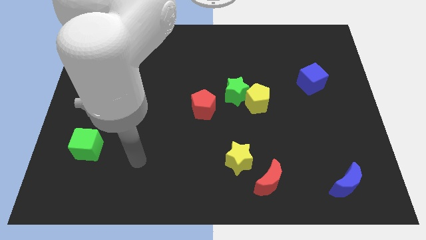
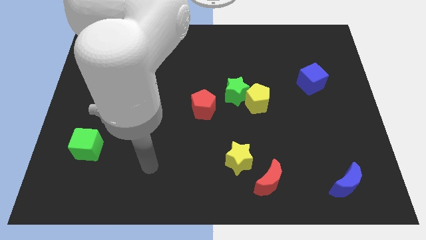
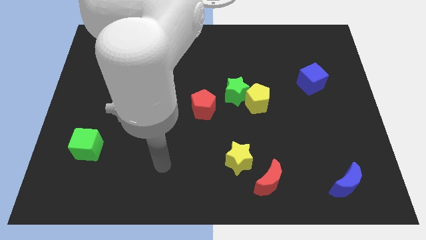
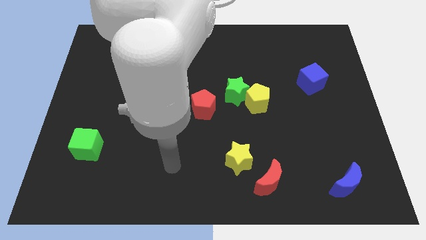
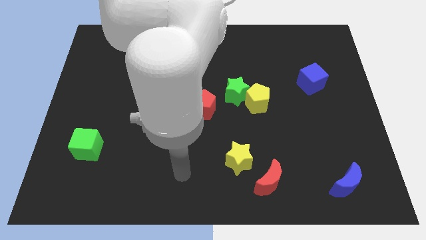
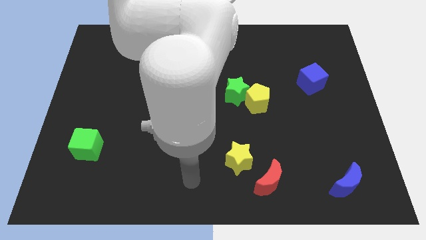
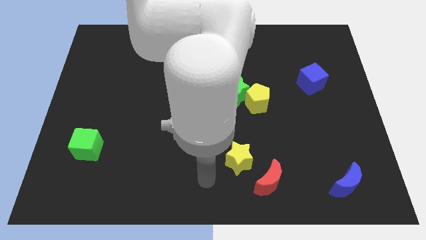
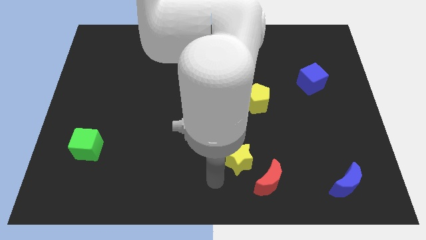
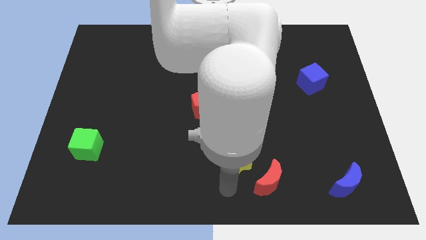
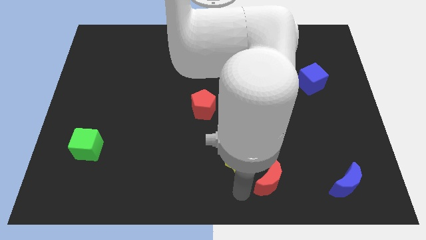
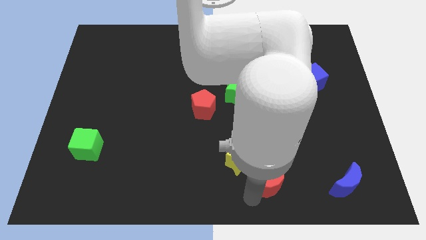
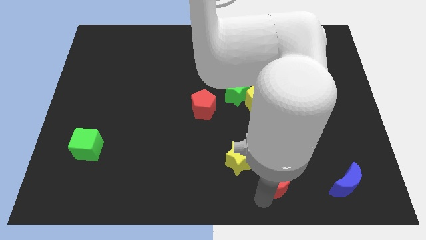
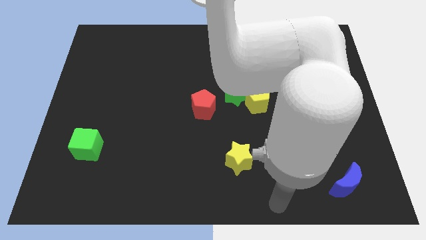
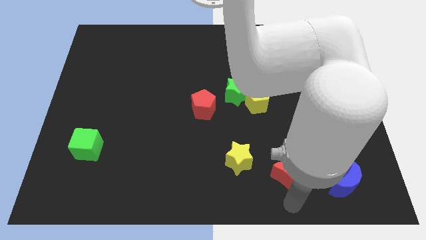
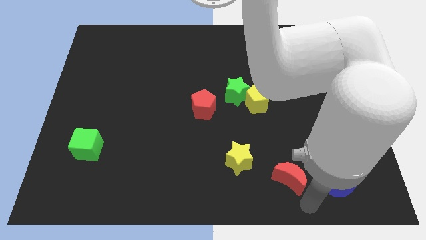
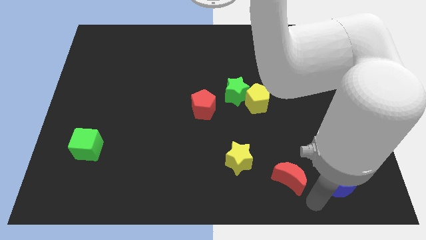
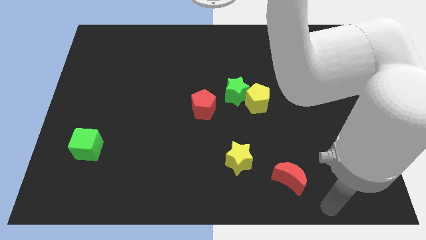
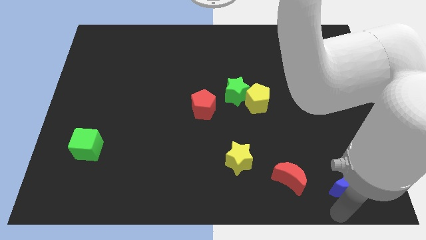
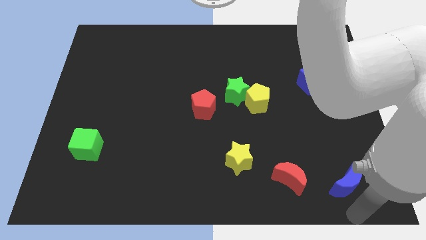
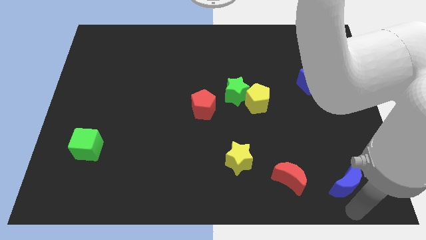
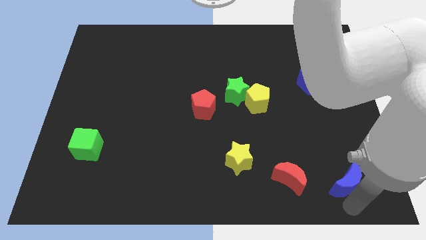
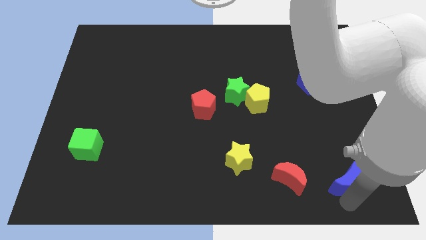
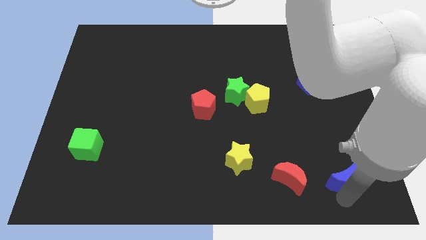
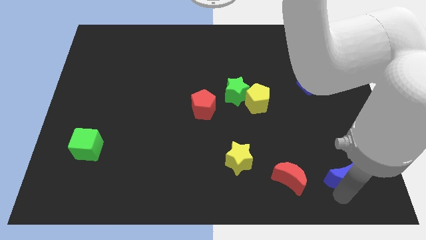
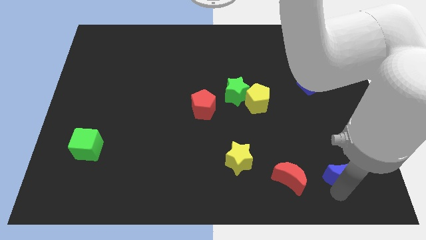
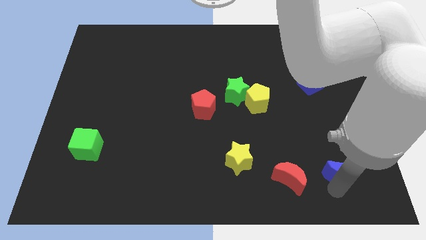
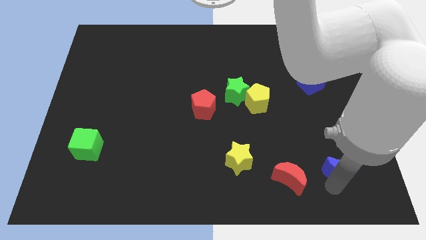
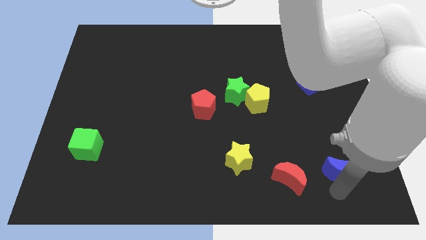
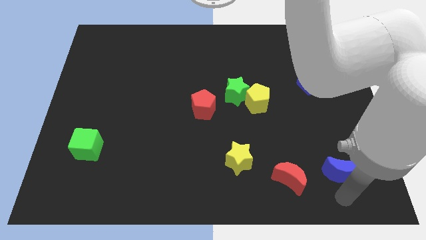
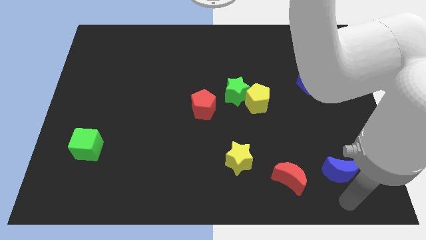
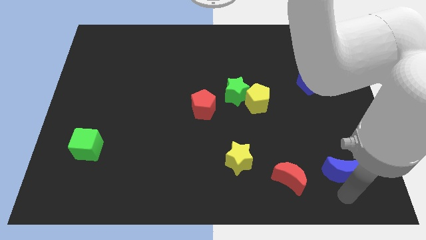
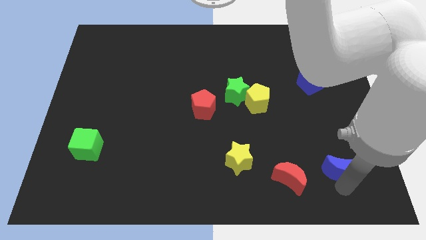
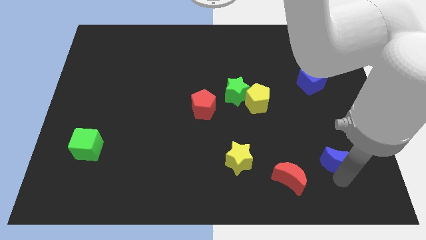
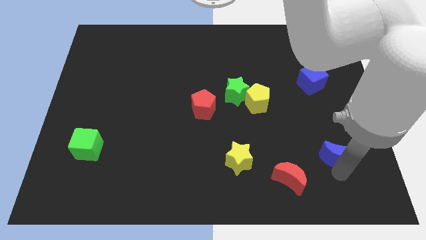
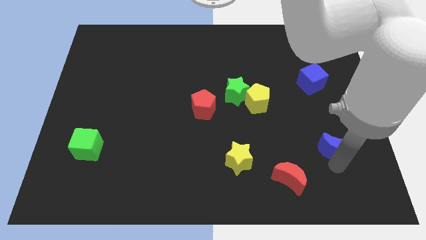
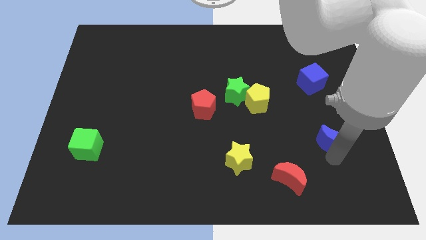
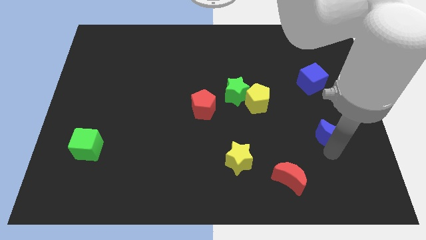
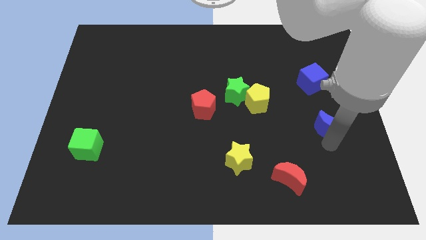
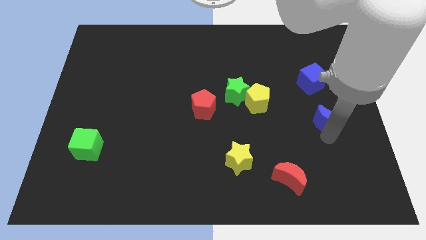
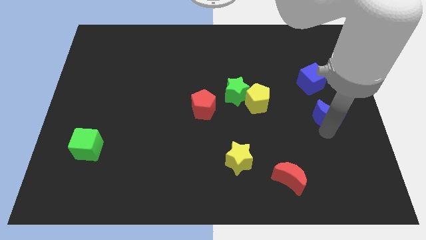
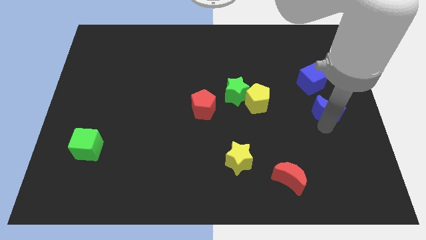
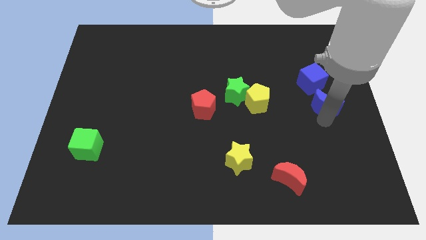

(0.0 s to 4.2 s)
push the blue moon upwards

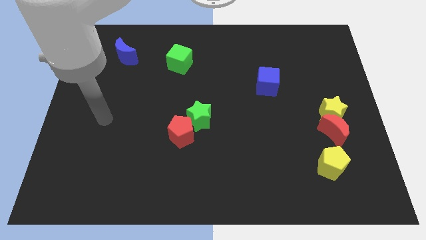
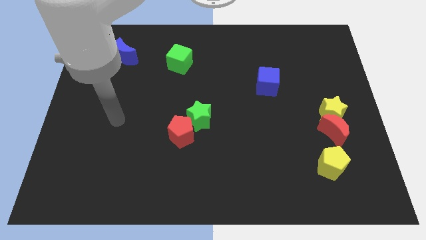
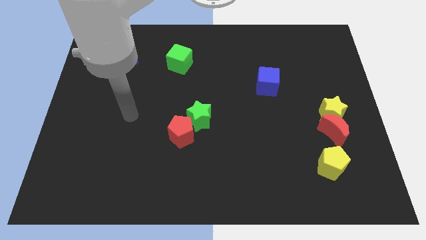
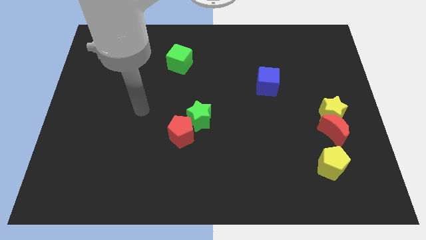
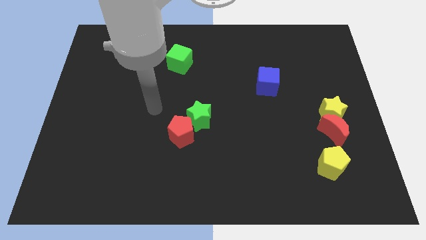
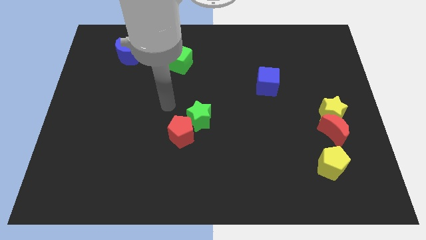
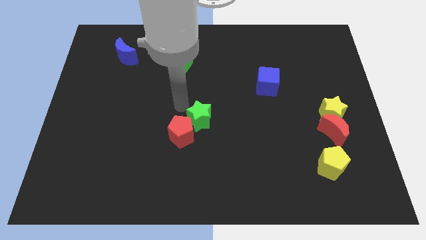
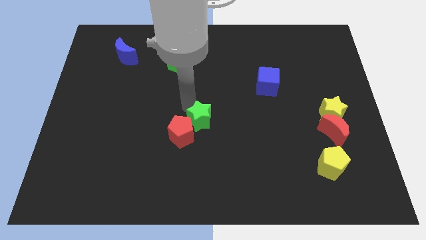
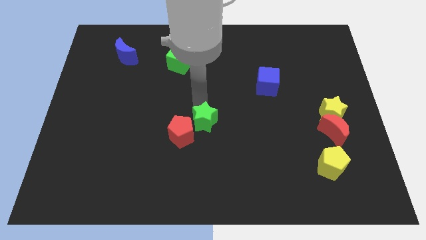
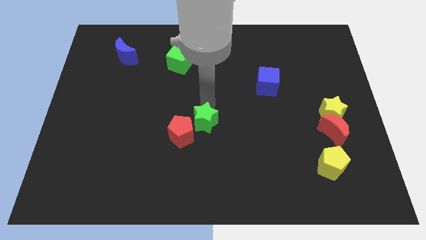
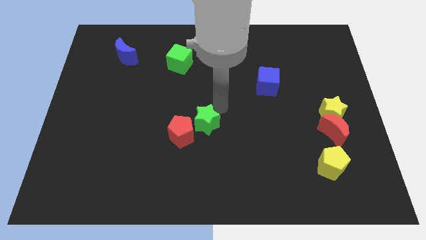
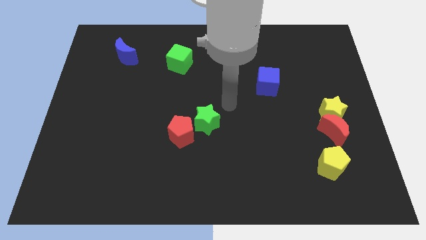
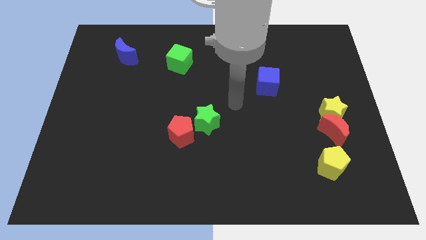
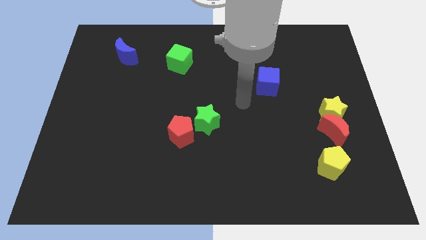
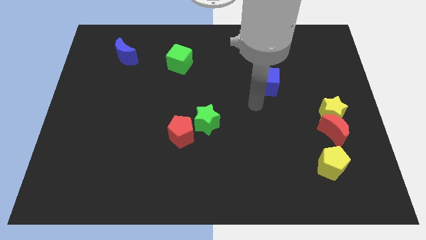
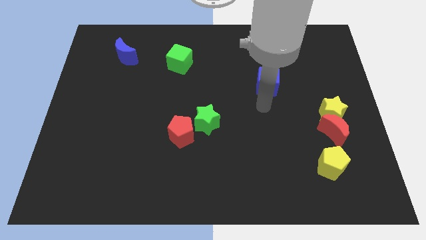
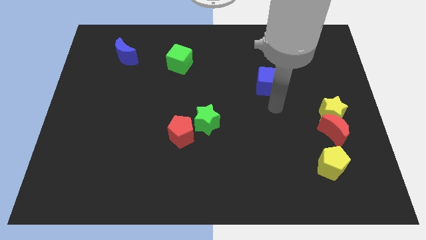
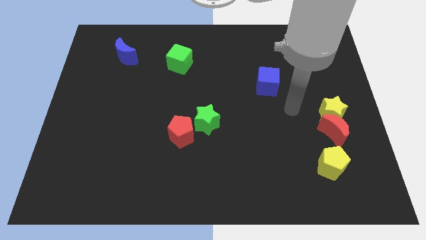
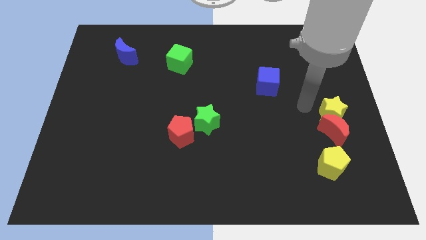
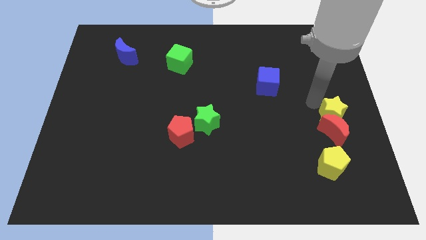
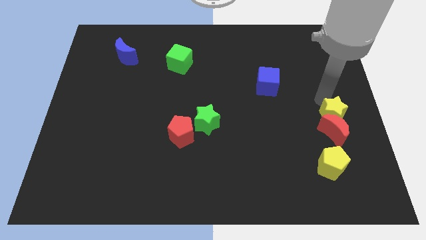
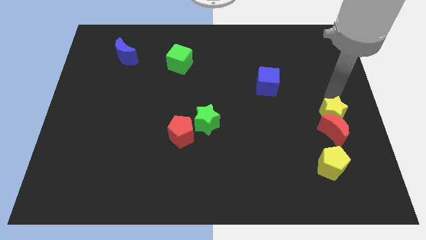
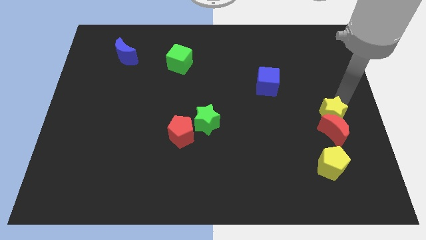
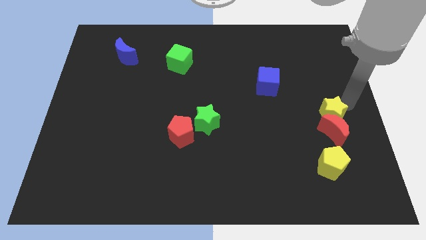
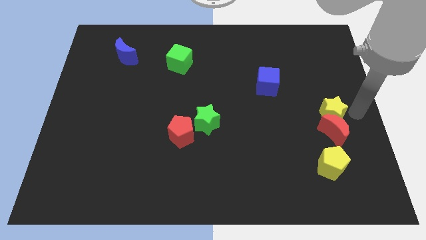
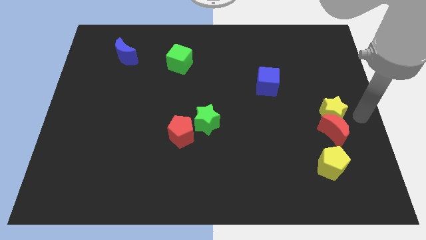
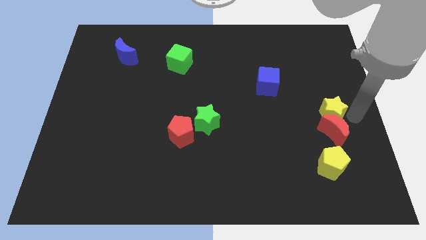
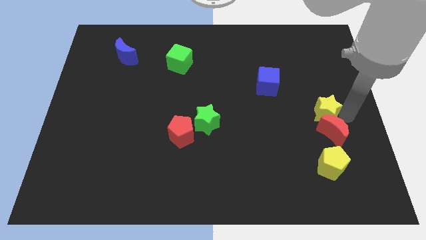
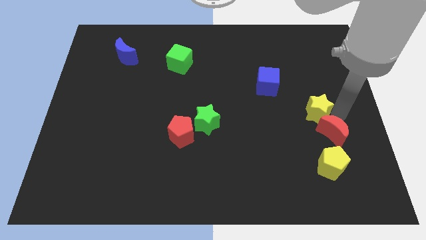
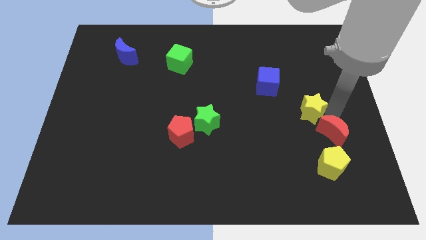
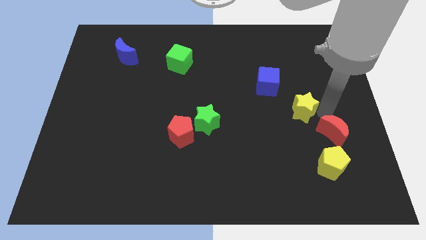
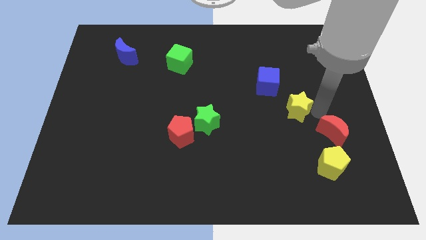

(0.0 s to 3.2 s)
slightly move the yellow star left

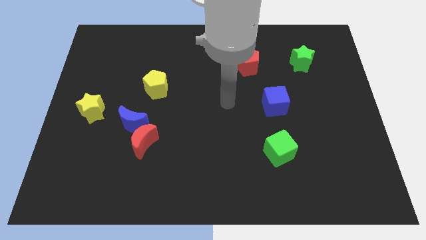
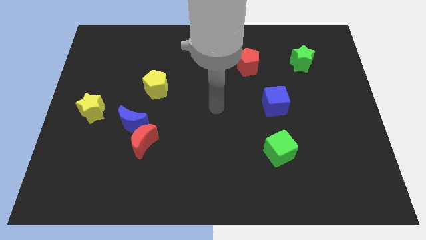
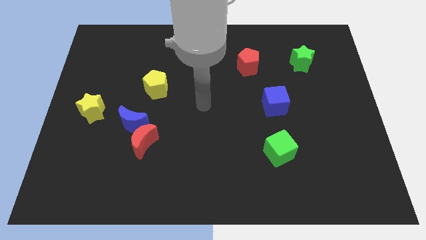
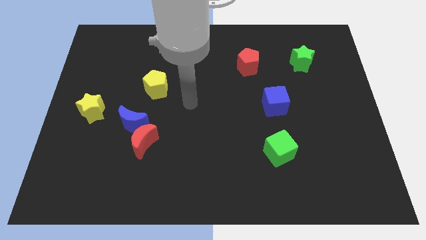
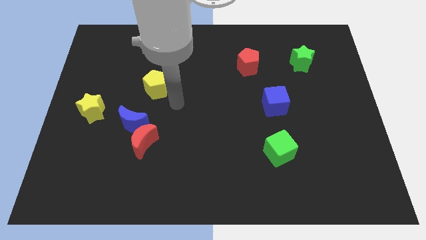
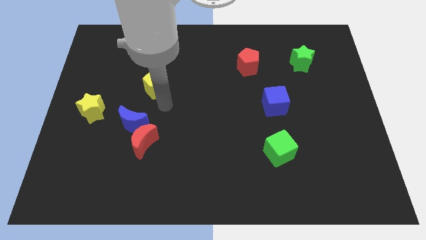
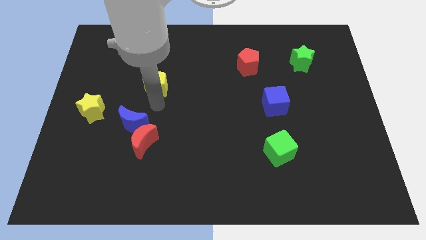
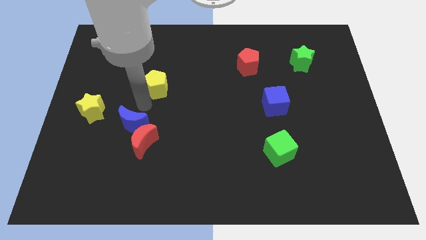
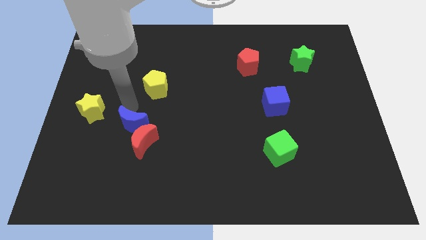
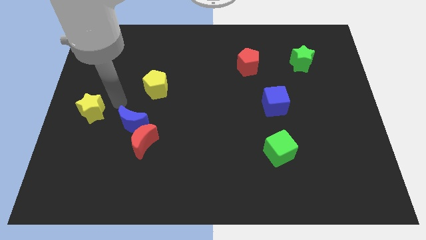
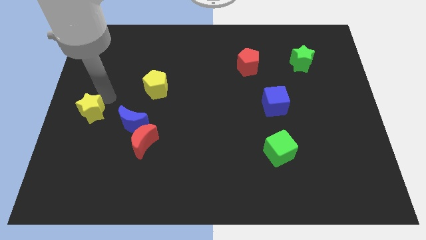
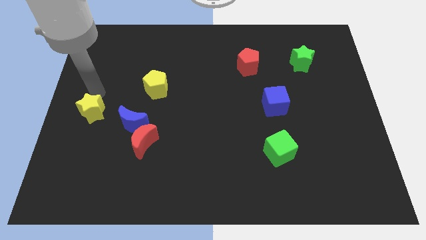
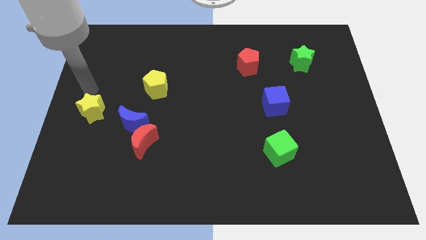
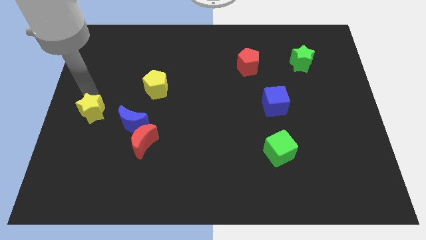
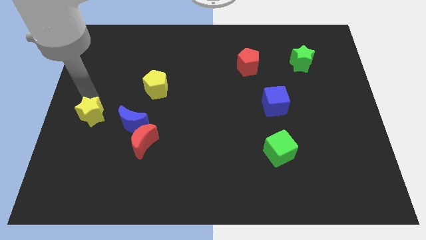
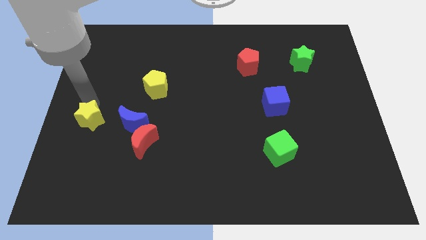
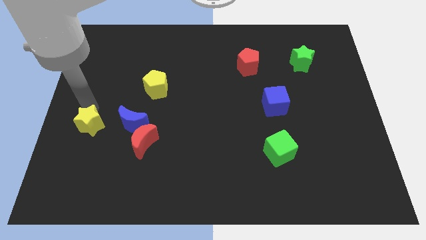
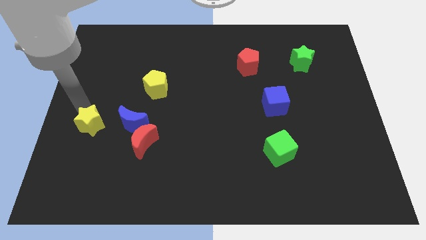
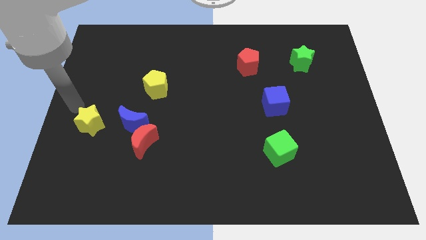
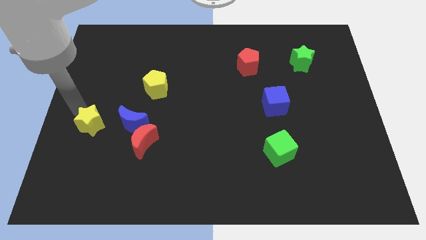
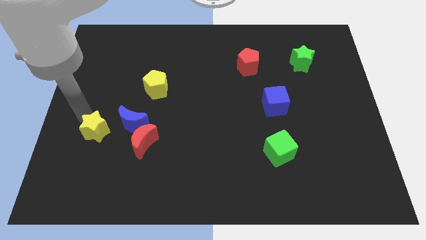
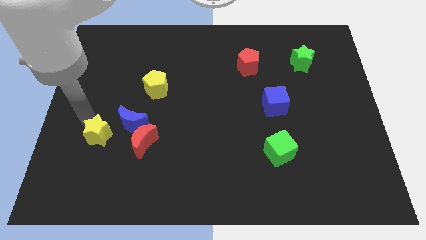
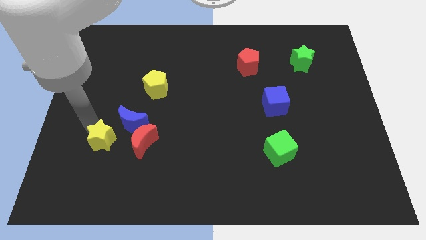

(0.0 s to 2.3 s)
move the yellow star a bit down and then to the right
